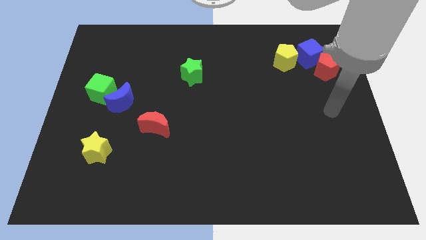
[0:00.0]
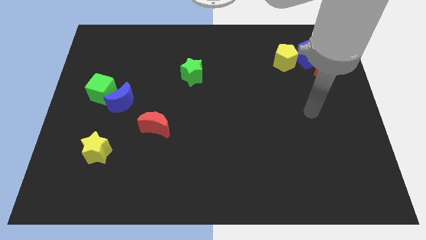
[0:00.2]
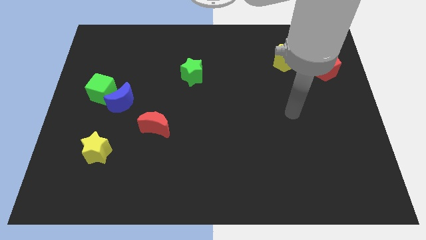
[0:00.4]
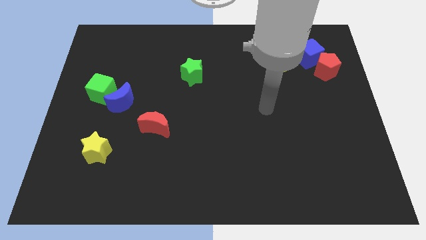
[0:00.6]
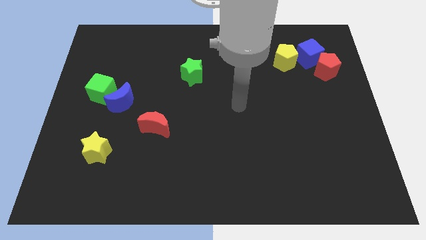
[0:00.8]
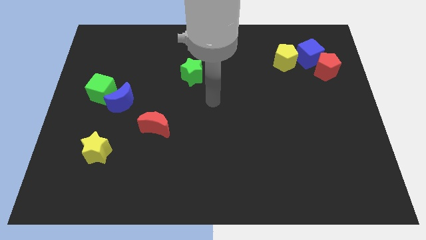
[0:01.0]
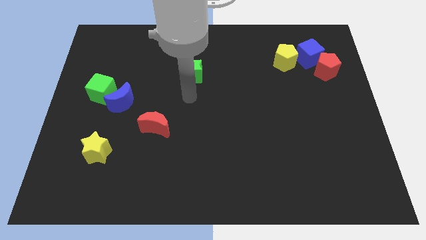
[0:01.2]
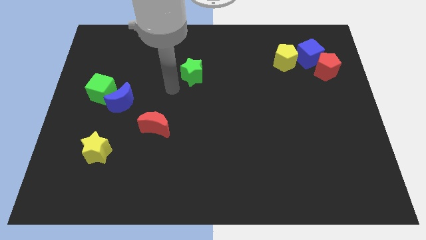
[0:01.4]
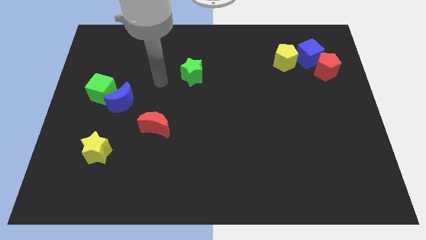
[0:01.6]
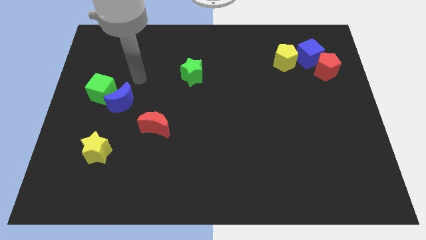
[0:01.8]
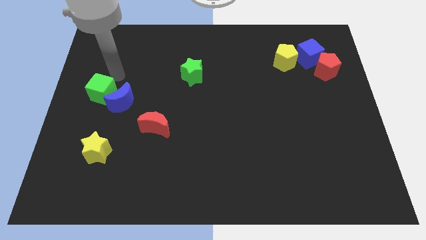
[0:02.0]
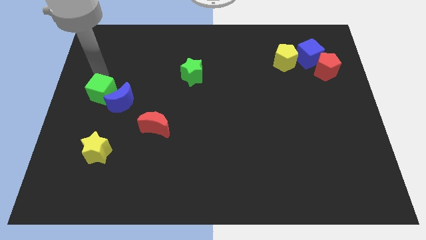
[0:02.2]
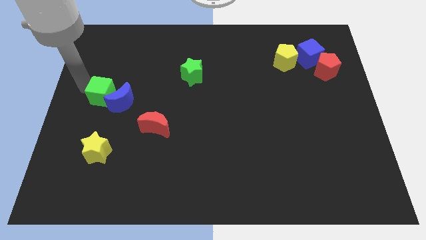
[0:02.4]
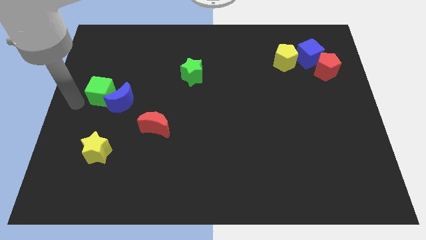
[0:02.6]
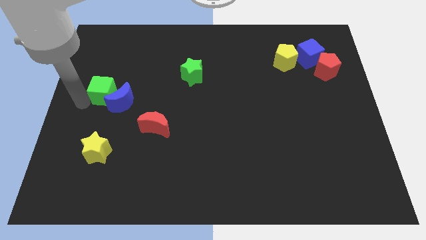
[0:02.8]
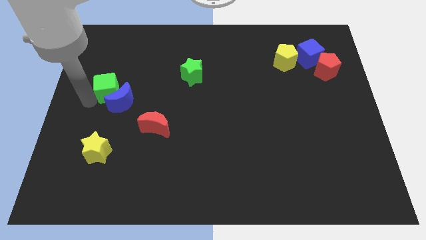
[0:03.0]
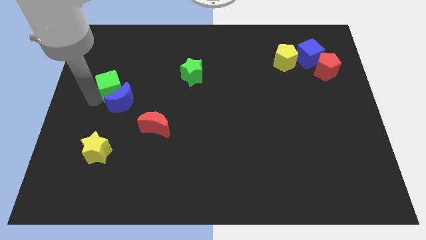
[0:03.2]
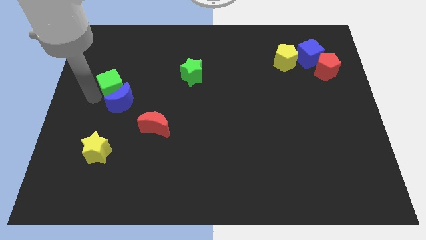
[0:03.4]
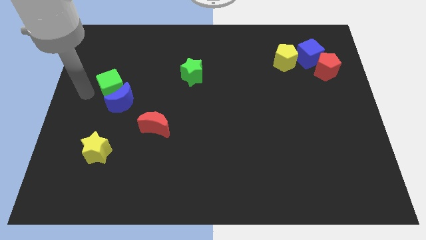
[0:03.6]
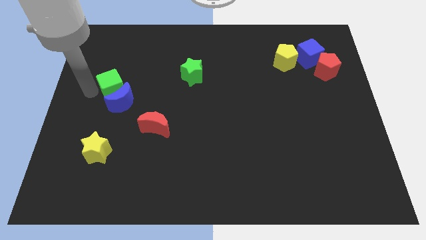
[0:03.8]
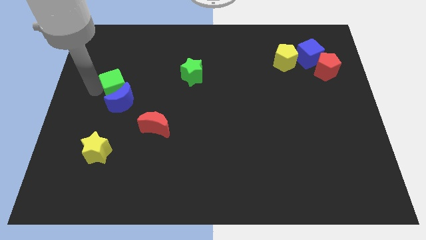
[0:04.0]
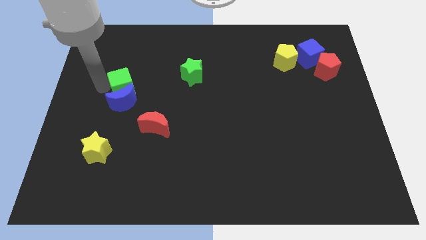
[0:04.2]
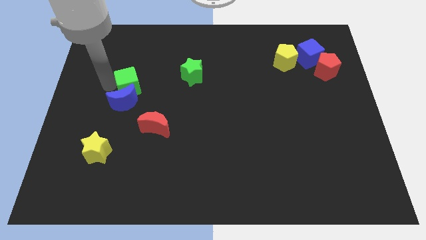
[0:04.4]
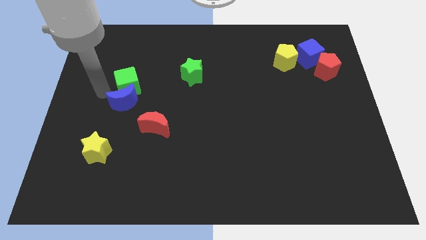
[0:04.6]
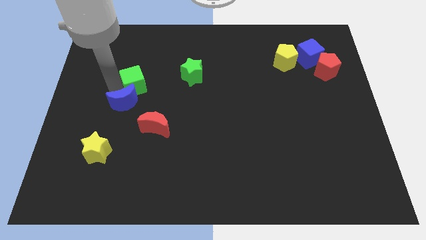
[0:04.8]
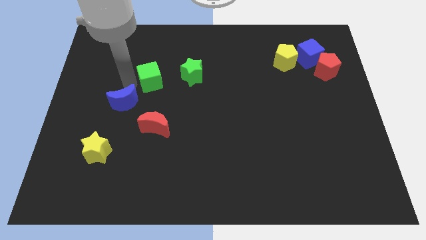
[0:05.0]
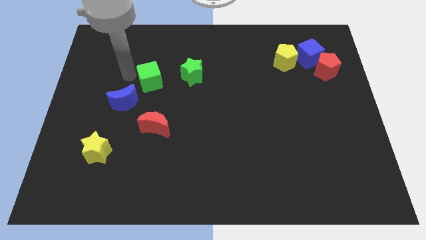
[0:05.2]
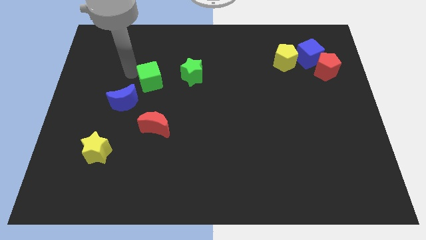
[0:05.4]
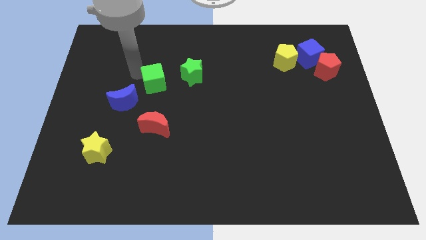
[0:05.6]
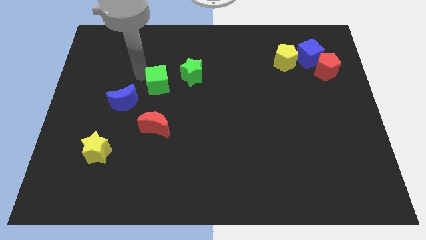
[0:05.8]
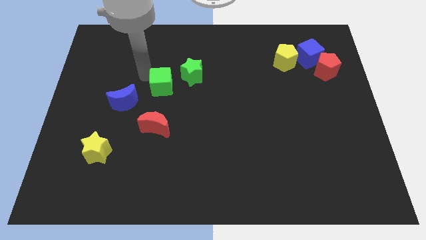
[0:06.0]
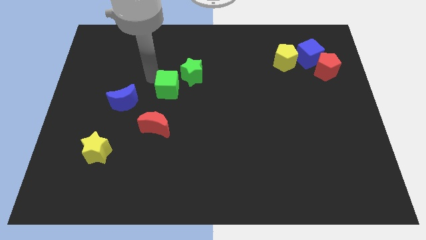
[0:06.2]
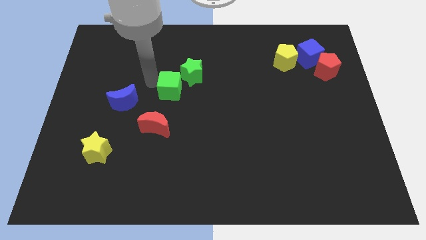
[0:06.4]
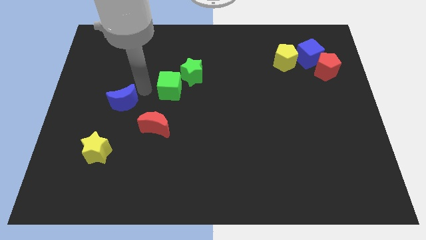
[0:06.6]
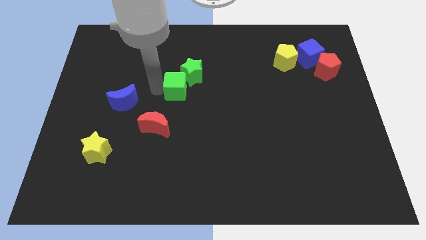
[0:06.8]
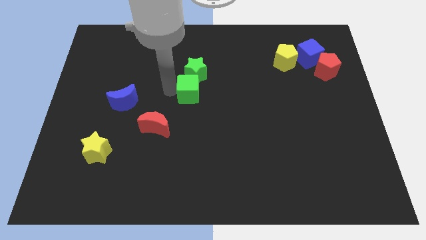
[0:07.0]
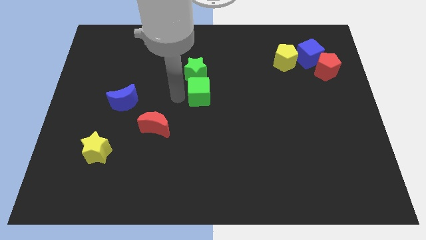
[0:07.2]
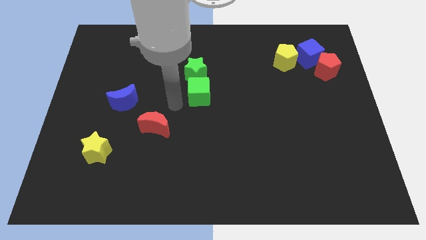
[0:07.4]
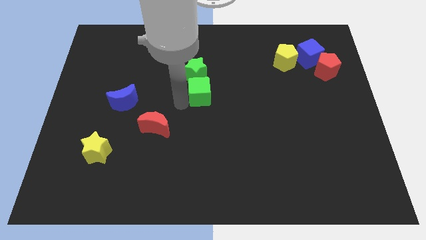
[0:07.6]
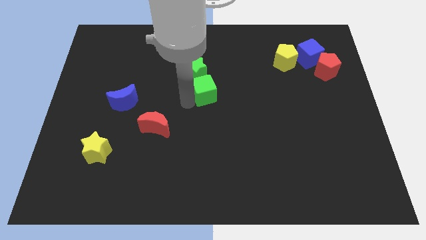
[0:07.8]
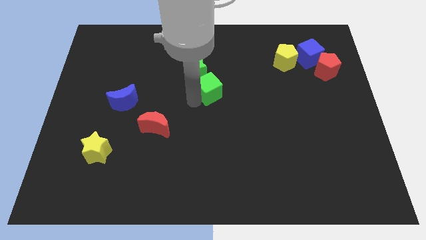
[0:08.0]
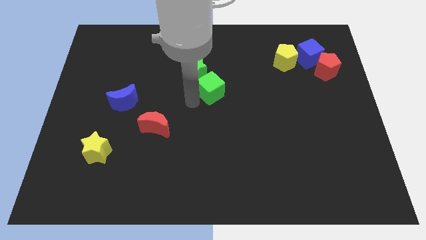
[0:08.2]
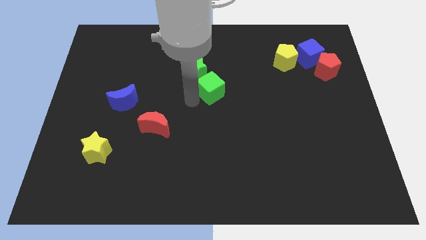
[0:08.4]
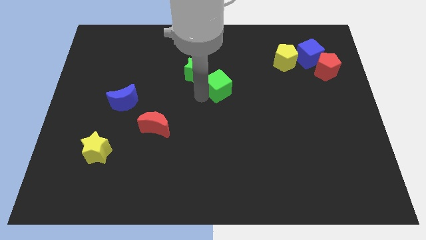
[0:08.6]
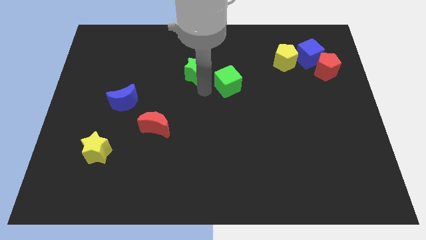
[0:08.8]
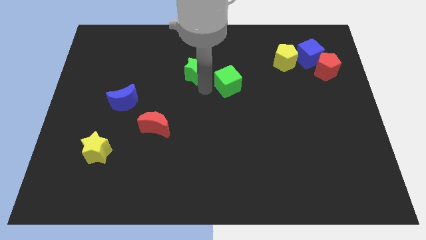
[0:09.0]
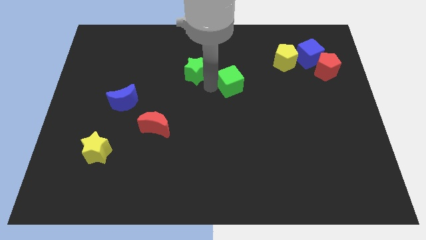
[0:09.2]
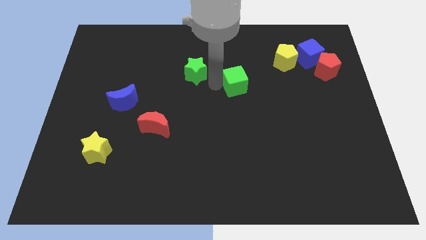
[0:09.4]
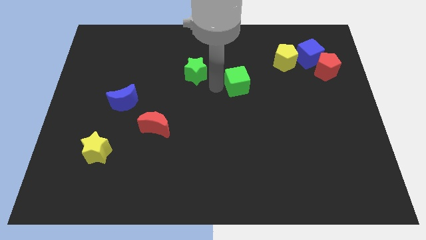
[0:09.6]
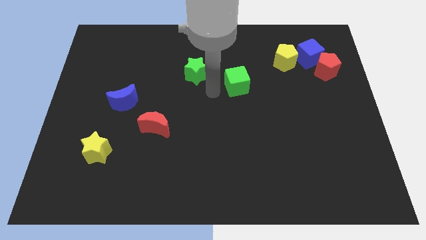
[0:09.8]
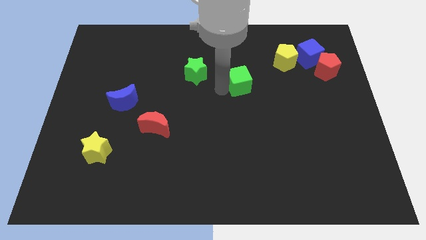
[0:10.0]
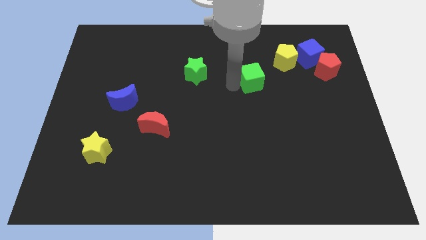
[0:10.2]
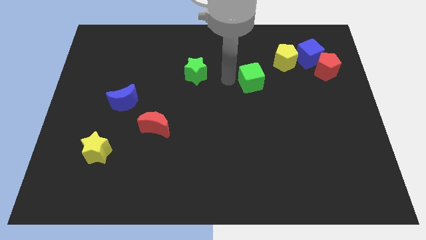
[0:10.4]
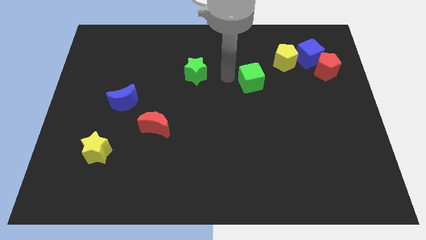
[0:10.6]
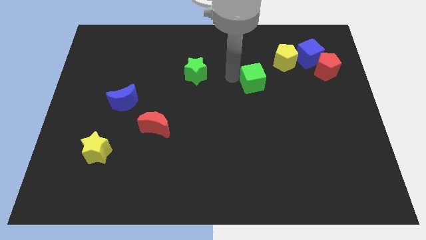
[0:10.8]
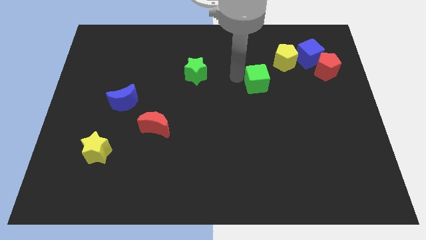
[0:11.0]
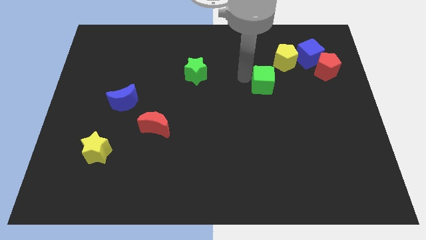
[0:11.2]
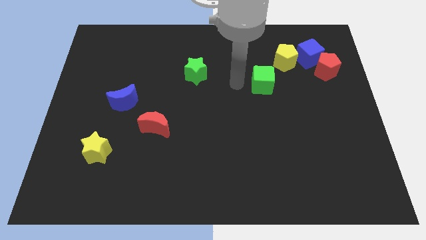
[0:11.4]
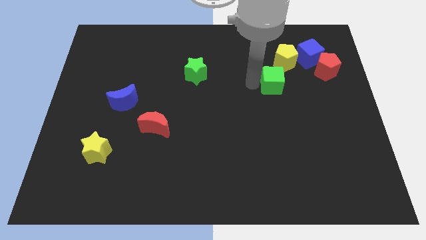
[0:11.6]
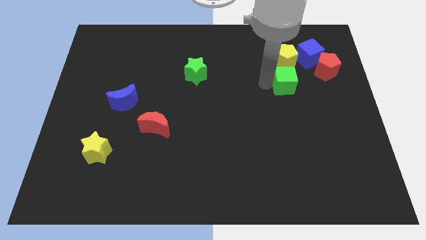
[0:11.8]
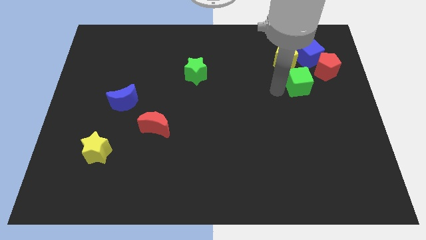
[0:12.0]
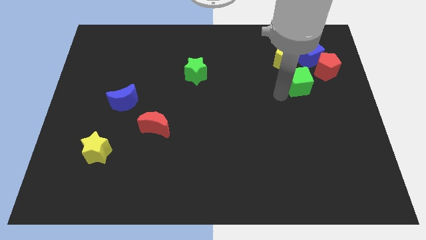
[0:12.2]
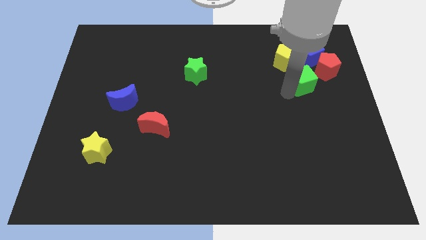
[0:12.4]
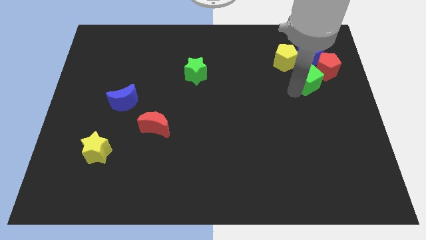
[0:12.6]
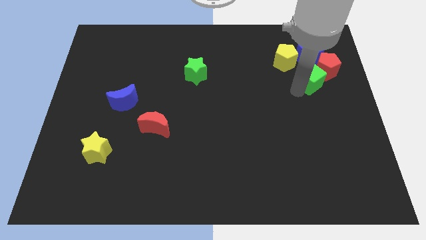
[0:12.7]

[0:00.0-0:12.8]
push the green cube towards the red pentagon
